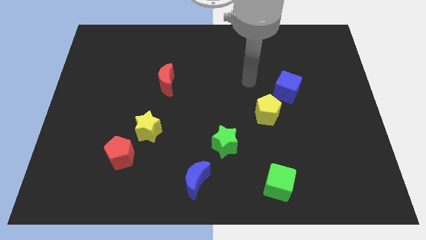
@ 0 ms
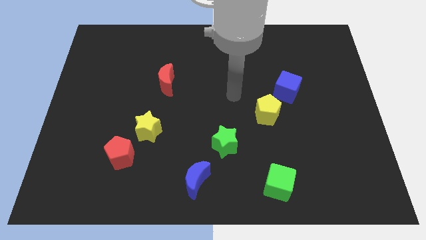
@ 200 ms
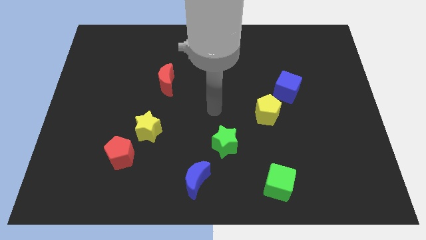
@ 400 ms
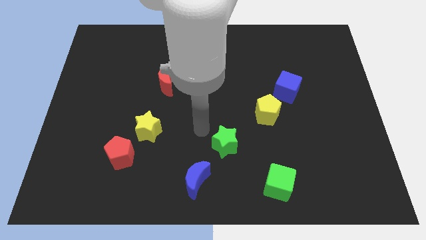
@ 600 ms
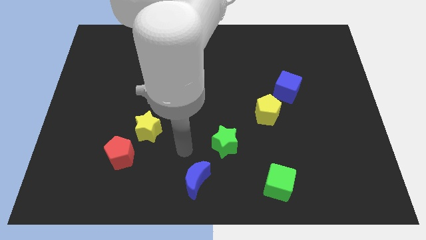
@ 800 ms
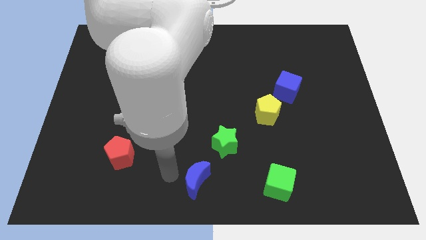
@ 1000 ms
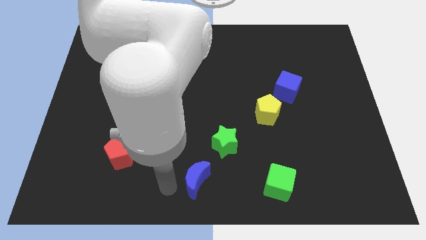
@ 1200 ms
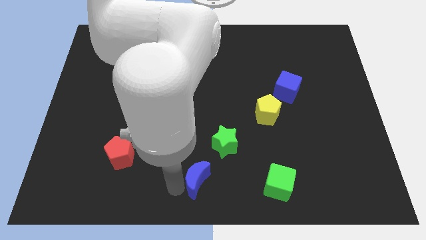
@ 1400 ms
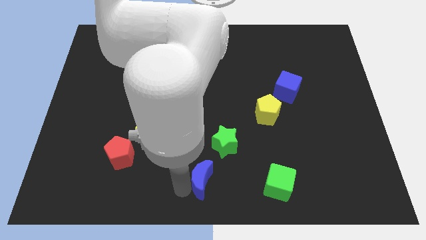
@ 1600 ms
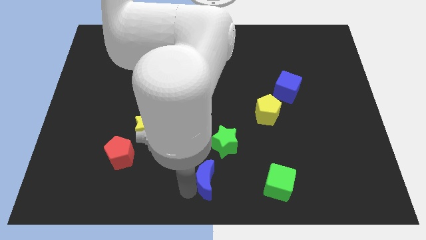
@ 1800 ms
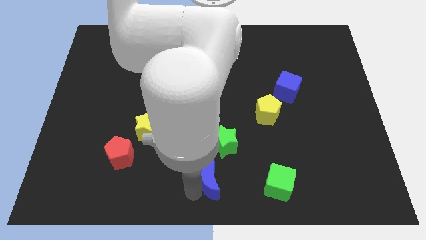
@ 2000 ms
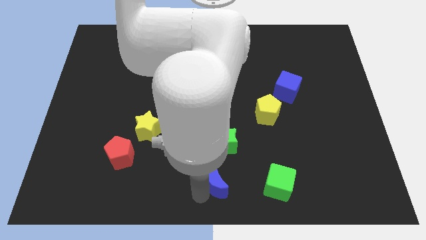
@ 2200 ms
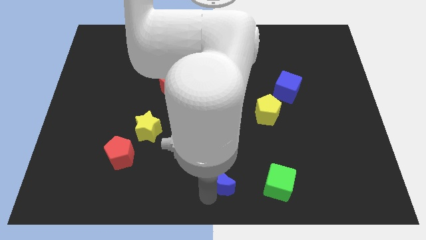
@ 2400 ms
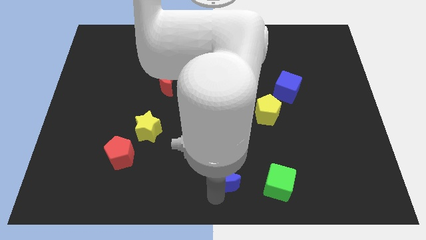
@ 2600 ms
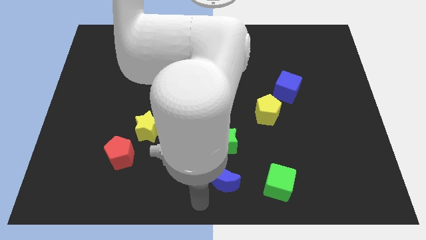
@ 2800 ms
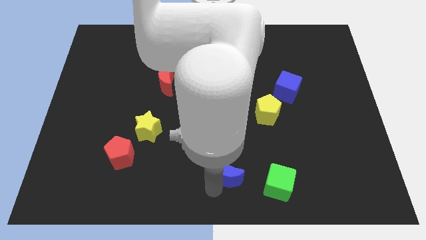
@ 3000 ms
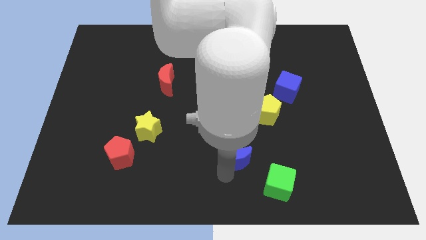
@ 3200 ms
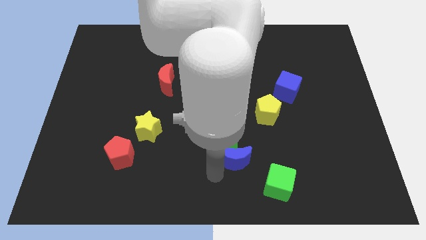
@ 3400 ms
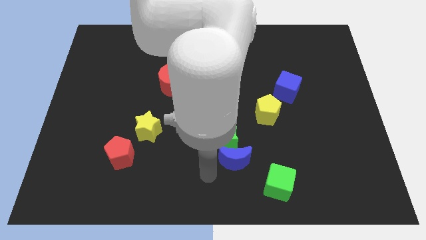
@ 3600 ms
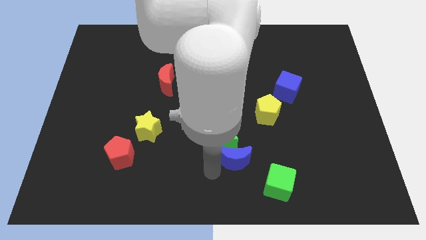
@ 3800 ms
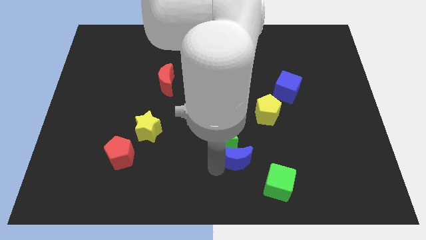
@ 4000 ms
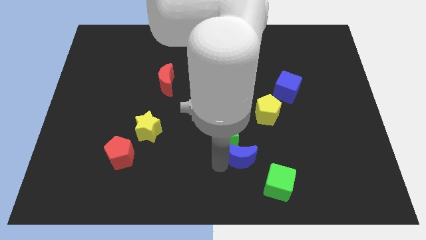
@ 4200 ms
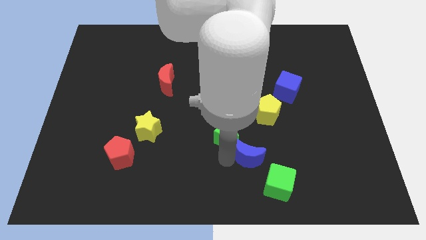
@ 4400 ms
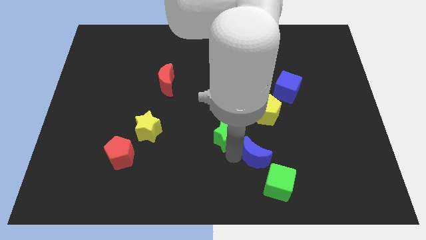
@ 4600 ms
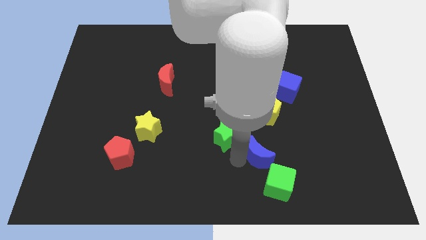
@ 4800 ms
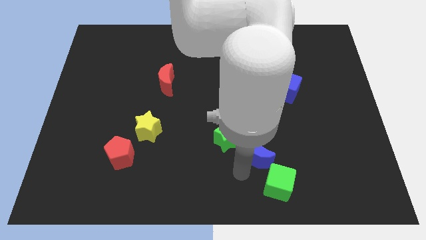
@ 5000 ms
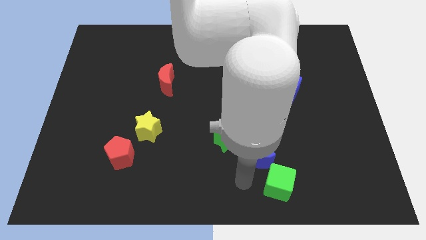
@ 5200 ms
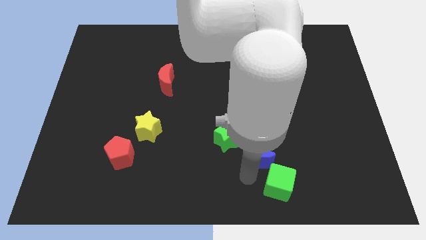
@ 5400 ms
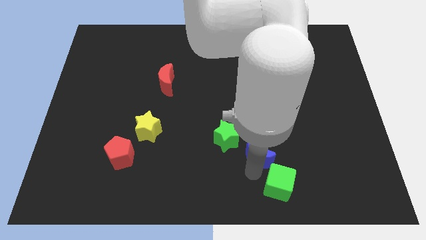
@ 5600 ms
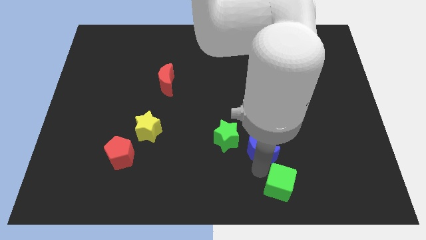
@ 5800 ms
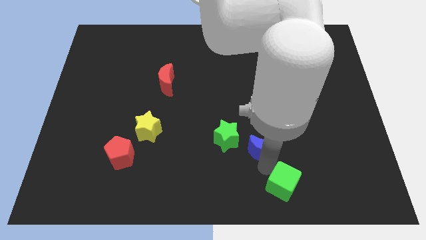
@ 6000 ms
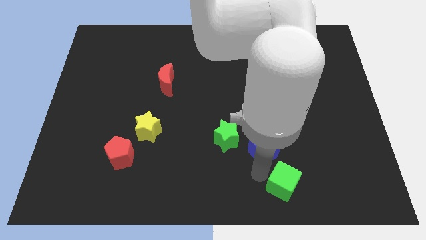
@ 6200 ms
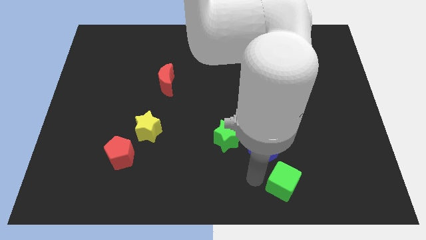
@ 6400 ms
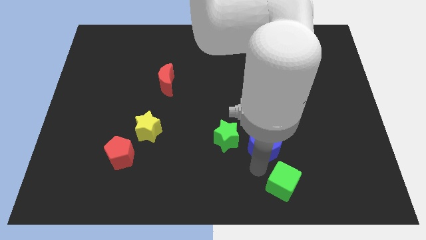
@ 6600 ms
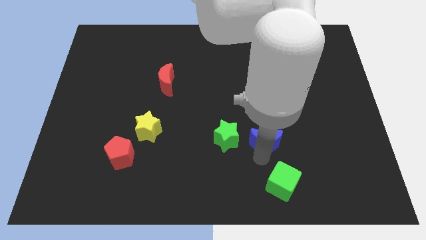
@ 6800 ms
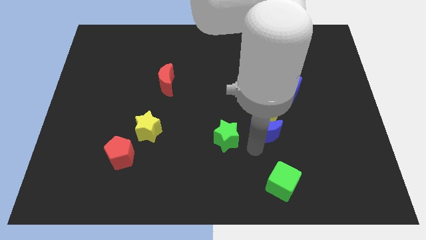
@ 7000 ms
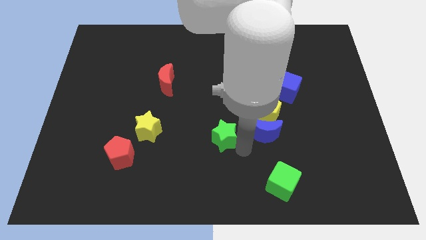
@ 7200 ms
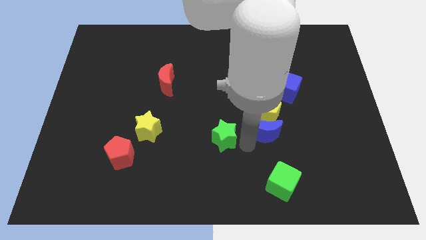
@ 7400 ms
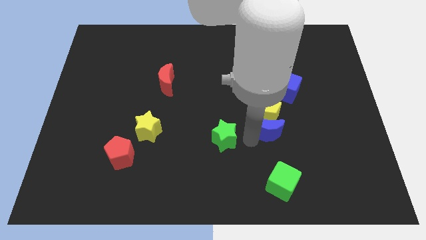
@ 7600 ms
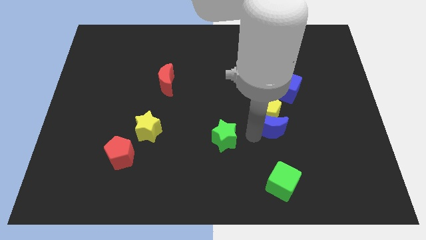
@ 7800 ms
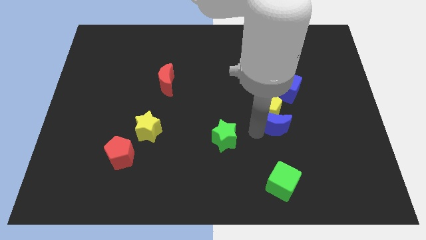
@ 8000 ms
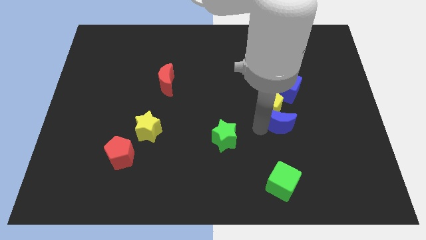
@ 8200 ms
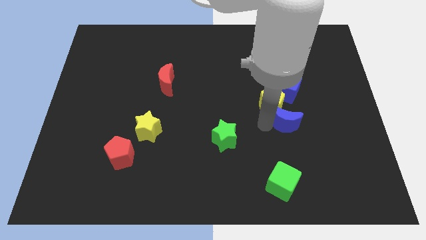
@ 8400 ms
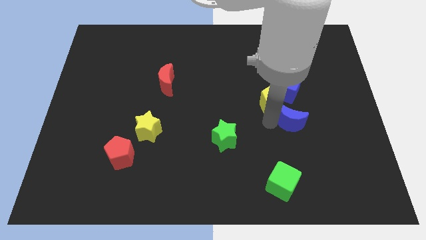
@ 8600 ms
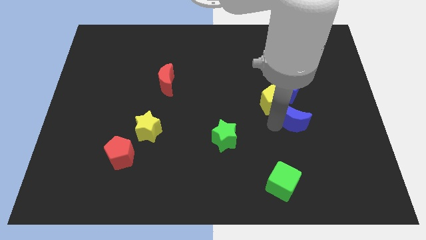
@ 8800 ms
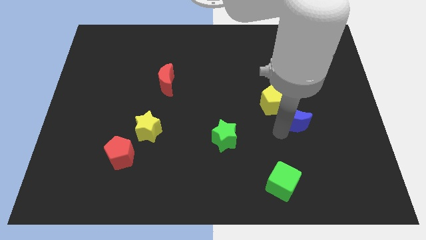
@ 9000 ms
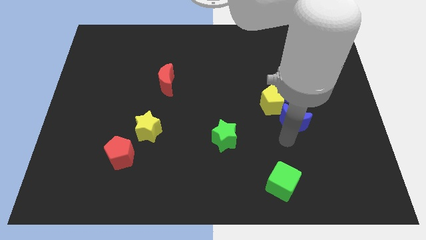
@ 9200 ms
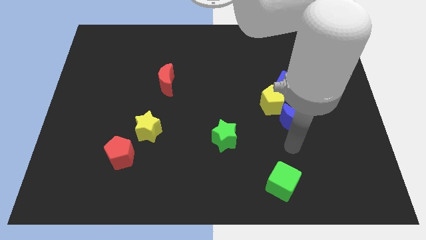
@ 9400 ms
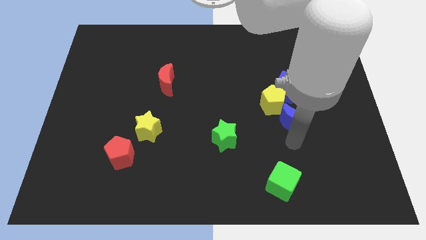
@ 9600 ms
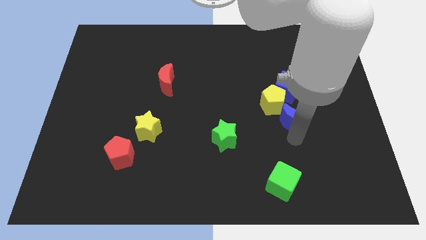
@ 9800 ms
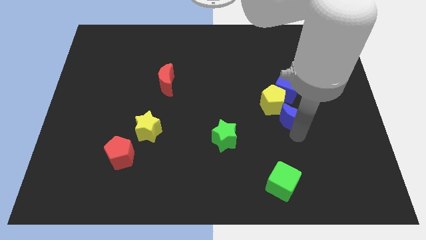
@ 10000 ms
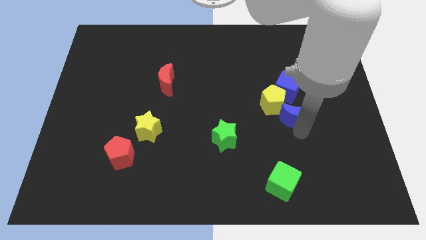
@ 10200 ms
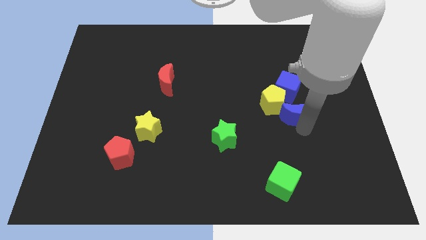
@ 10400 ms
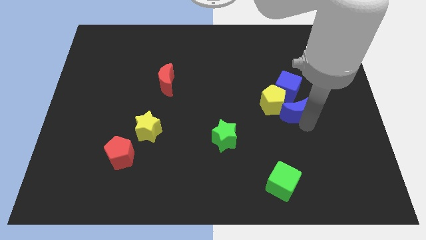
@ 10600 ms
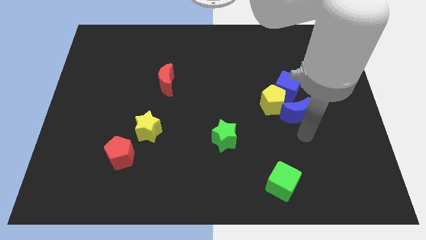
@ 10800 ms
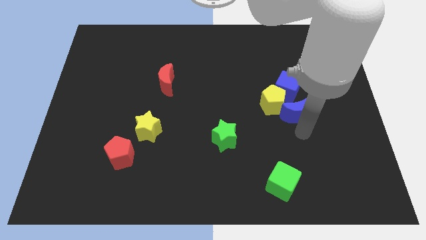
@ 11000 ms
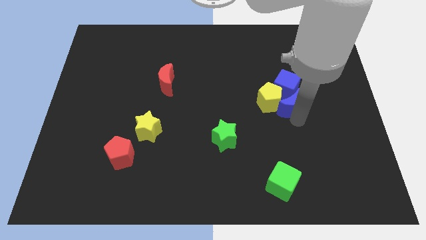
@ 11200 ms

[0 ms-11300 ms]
slide the blue moon to the blue cube

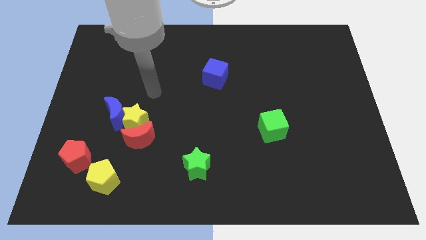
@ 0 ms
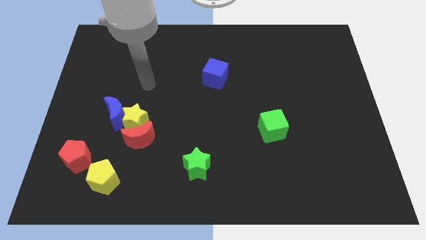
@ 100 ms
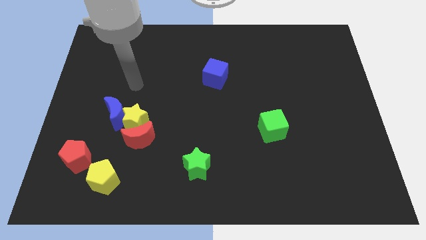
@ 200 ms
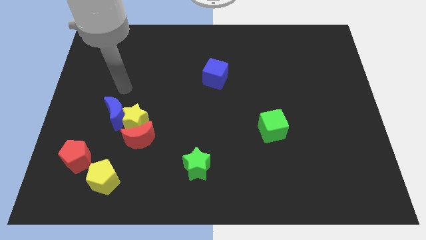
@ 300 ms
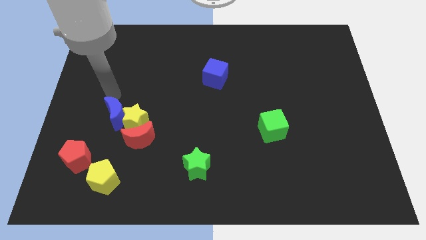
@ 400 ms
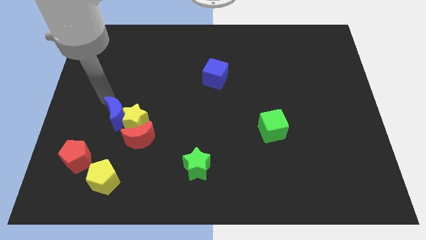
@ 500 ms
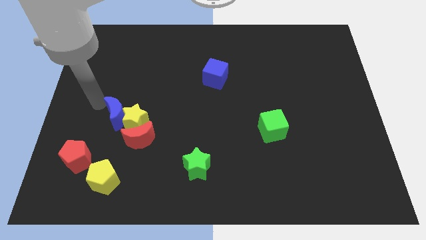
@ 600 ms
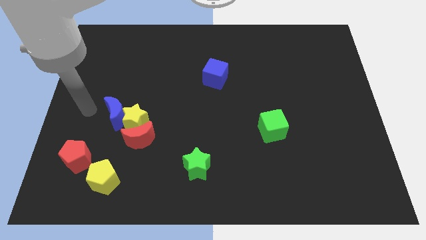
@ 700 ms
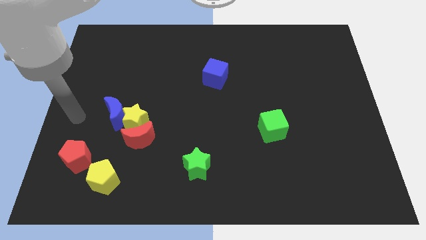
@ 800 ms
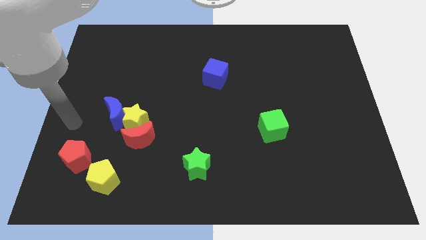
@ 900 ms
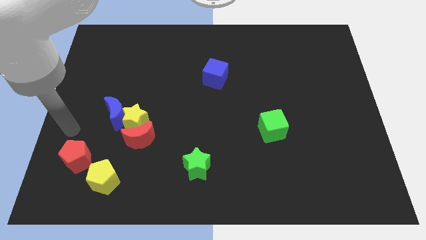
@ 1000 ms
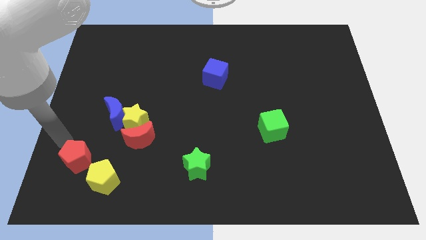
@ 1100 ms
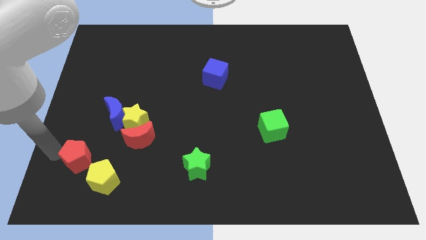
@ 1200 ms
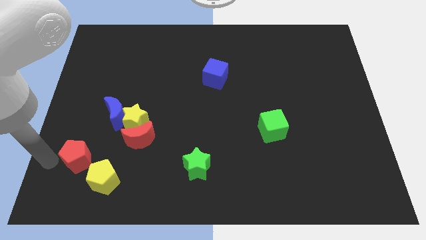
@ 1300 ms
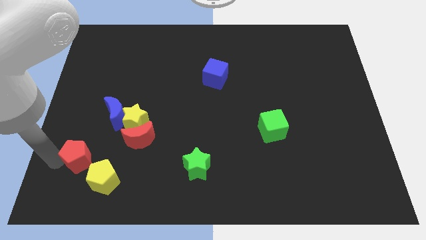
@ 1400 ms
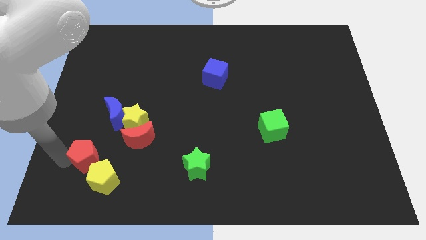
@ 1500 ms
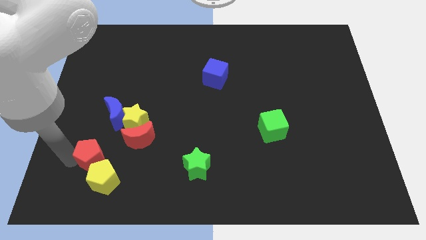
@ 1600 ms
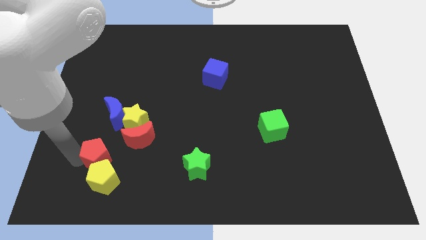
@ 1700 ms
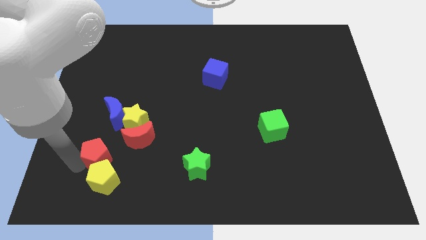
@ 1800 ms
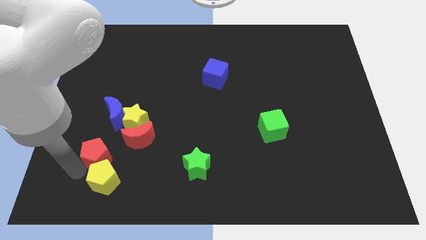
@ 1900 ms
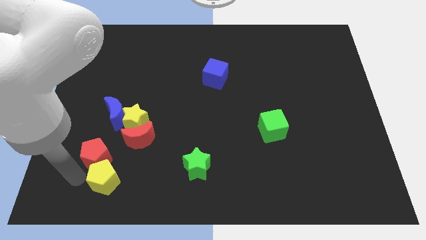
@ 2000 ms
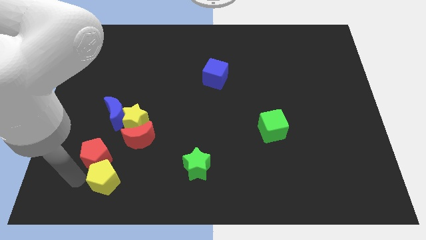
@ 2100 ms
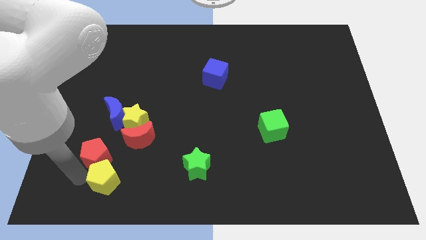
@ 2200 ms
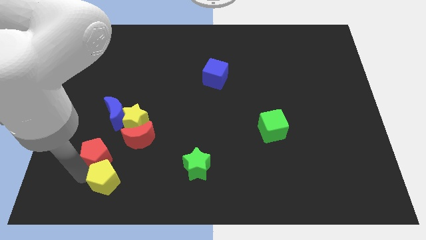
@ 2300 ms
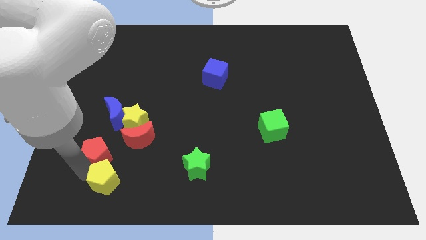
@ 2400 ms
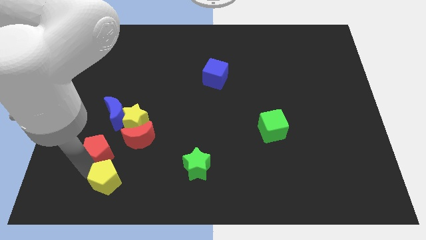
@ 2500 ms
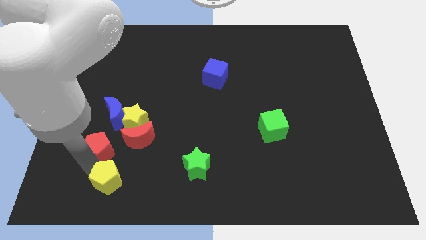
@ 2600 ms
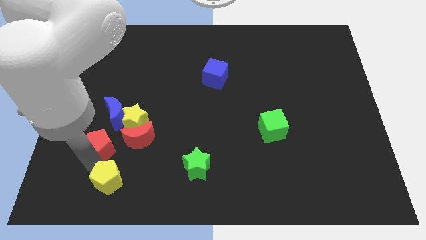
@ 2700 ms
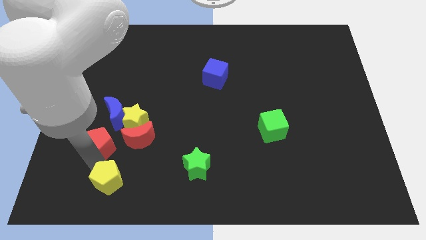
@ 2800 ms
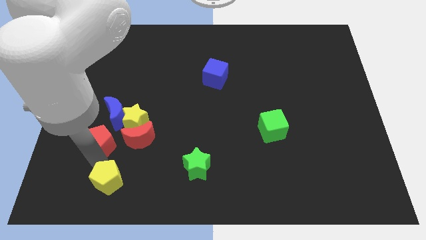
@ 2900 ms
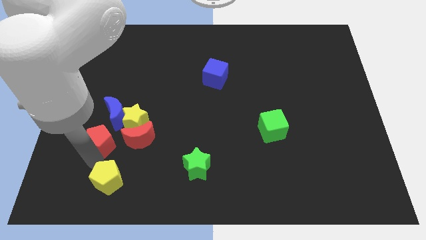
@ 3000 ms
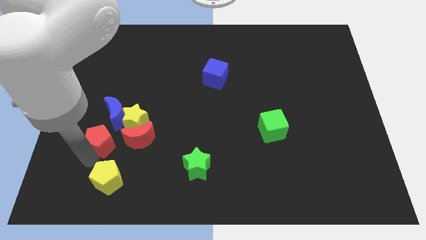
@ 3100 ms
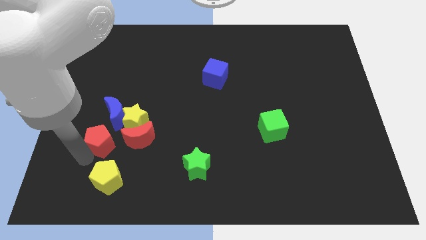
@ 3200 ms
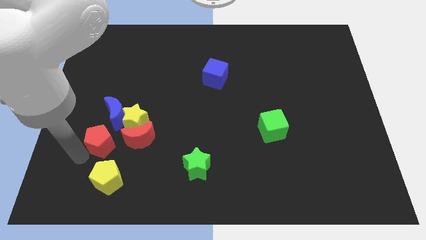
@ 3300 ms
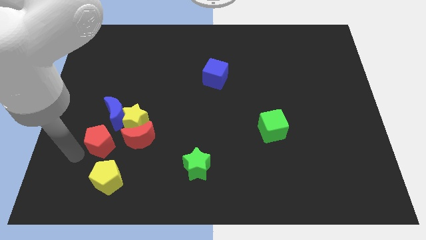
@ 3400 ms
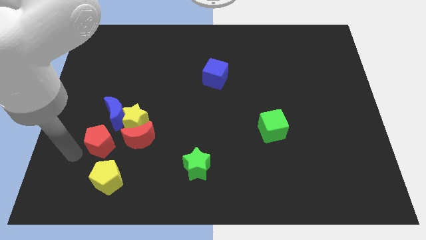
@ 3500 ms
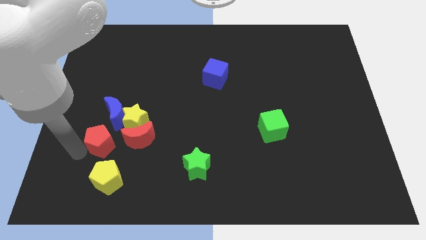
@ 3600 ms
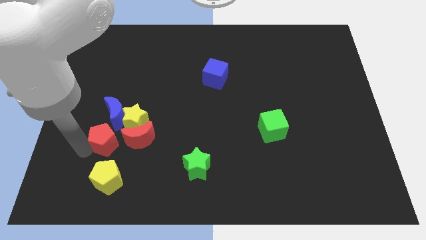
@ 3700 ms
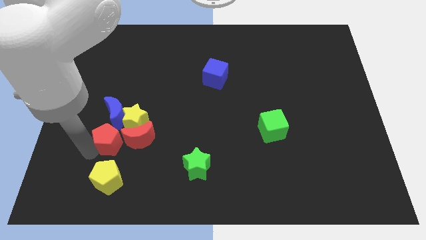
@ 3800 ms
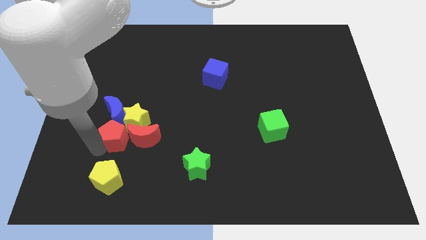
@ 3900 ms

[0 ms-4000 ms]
push the red pentagon to the yellow star
